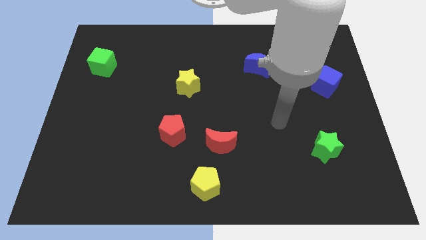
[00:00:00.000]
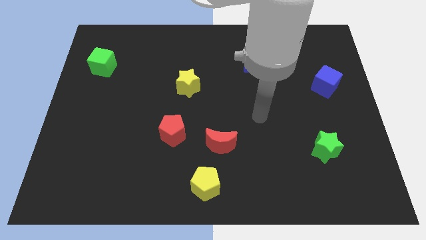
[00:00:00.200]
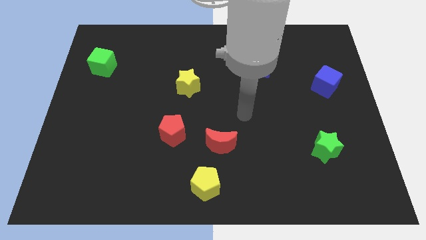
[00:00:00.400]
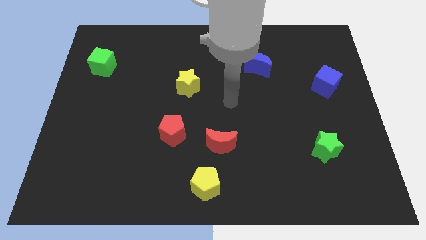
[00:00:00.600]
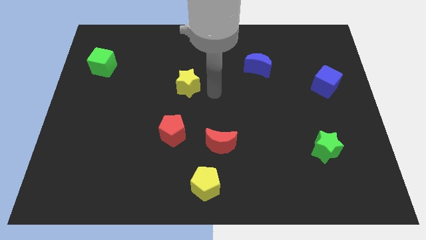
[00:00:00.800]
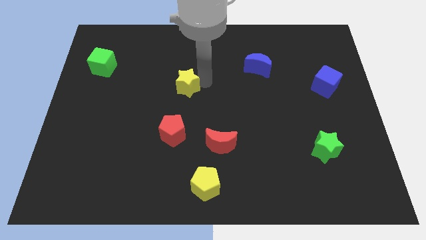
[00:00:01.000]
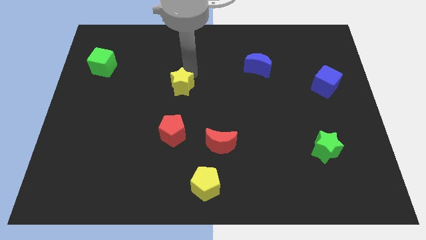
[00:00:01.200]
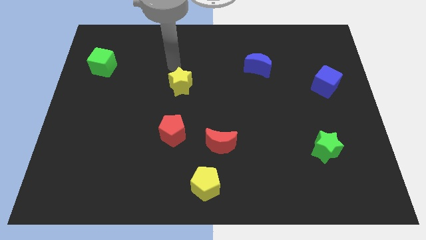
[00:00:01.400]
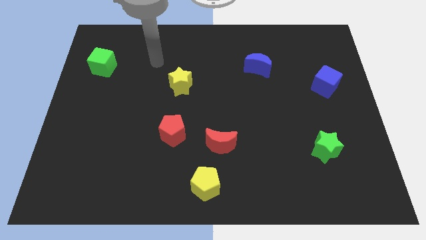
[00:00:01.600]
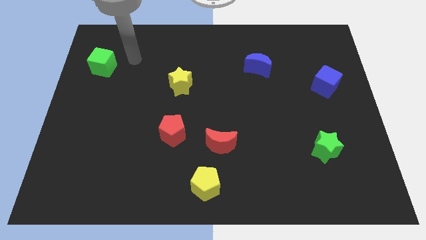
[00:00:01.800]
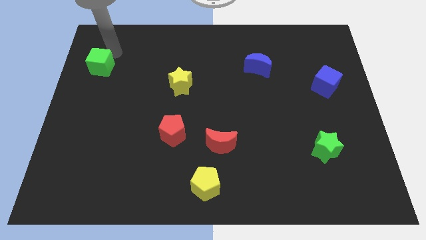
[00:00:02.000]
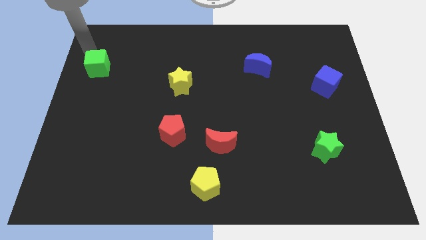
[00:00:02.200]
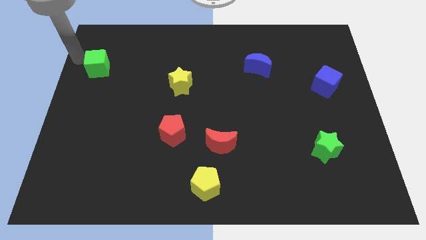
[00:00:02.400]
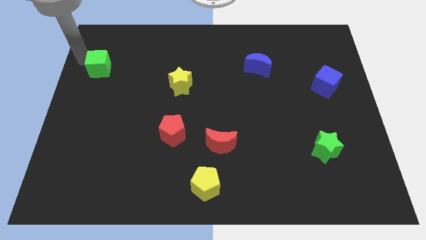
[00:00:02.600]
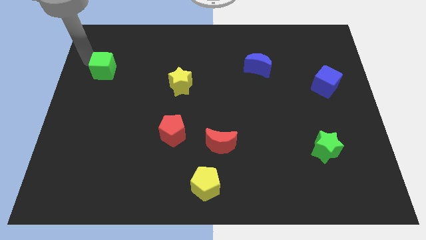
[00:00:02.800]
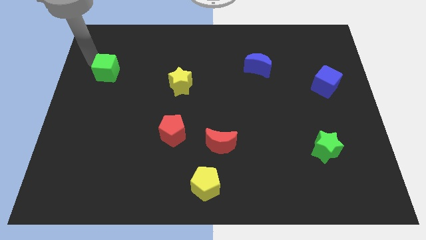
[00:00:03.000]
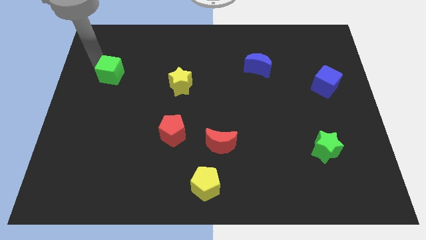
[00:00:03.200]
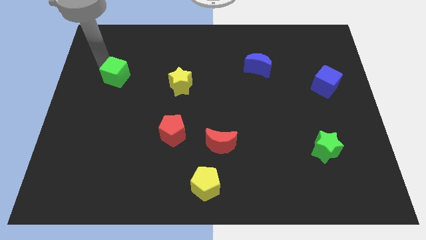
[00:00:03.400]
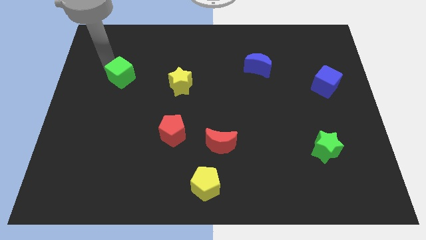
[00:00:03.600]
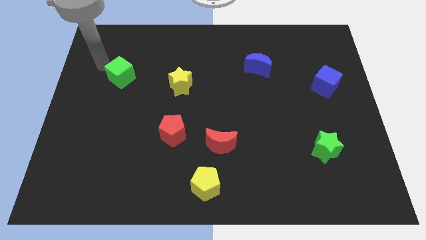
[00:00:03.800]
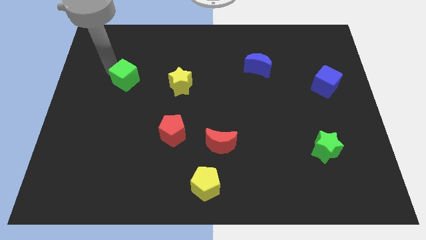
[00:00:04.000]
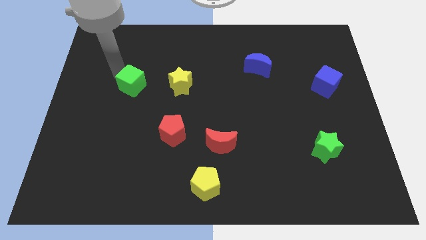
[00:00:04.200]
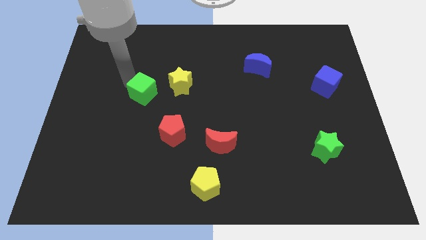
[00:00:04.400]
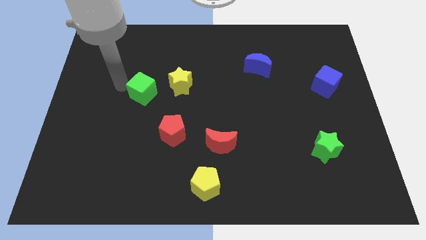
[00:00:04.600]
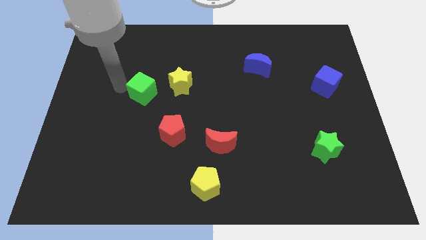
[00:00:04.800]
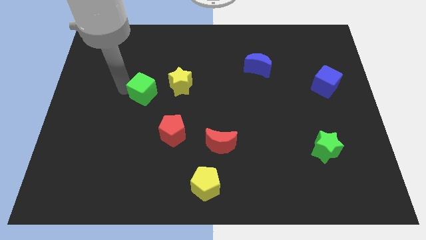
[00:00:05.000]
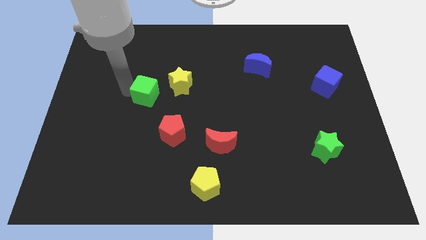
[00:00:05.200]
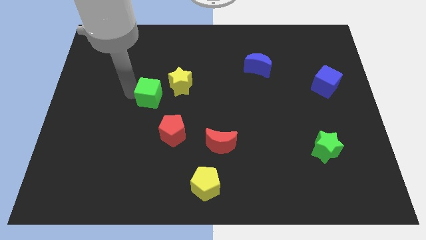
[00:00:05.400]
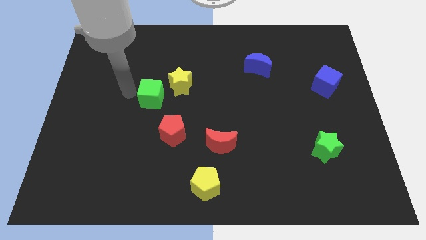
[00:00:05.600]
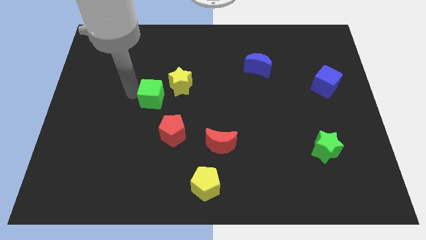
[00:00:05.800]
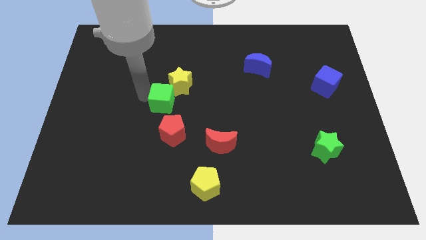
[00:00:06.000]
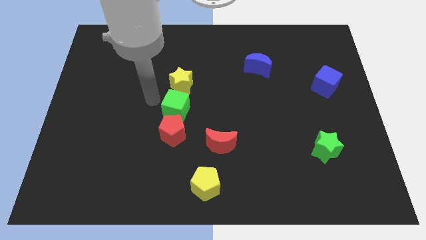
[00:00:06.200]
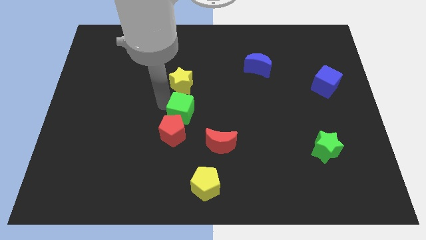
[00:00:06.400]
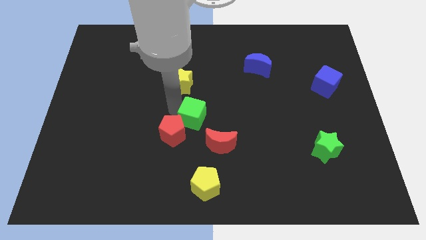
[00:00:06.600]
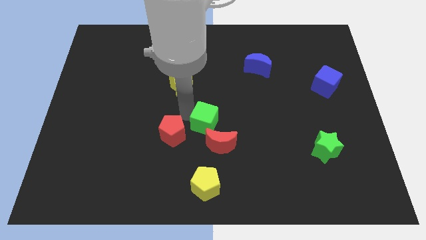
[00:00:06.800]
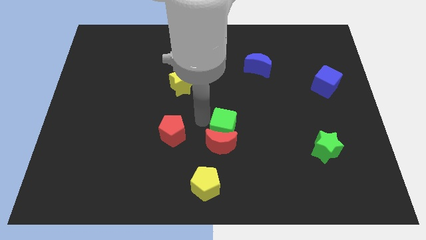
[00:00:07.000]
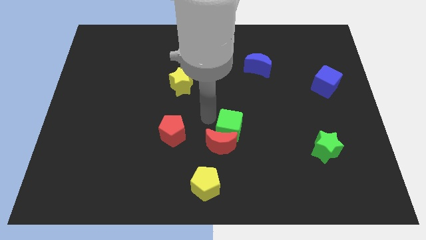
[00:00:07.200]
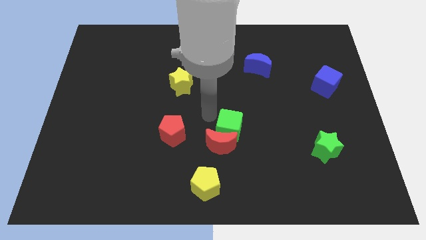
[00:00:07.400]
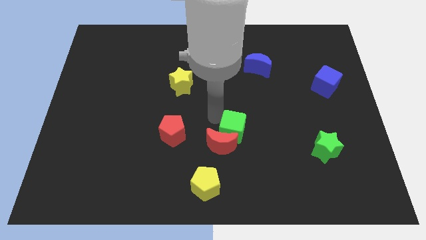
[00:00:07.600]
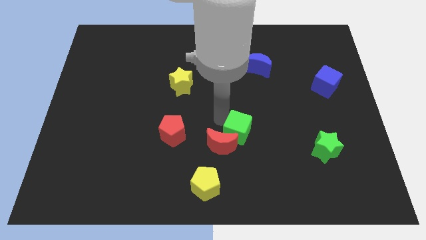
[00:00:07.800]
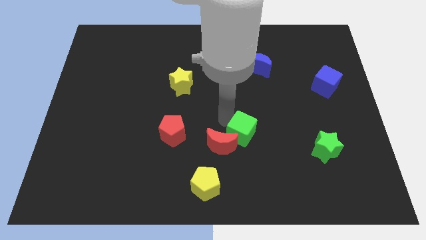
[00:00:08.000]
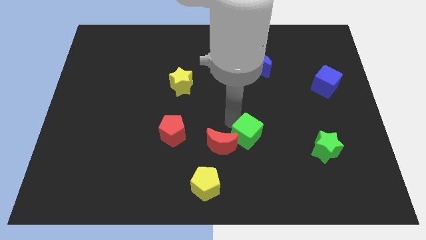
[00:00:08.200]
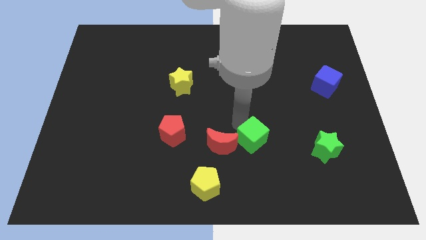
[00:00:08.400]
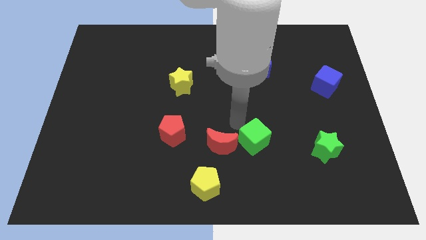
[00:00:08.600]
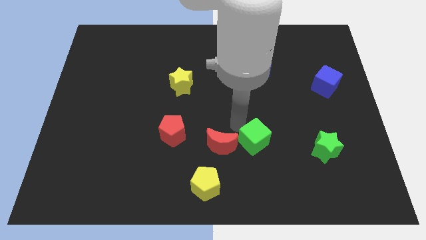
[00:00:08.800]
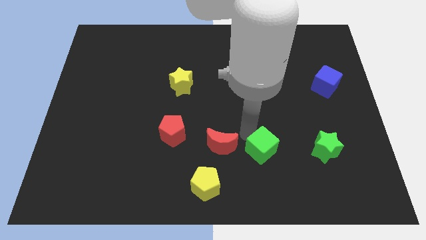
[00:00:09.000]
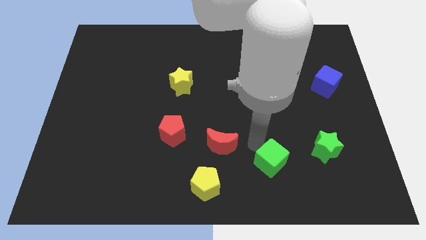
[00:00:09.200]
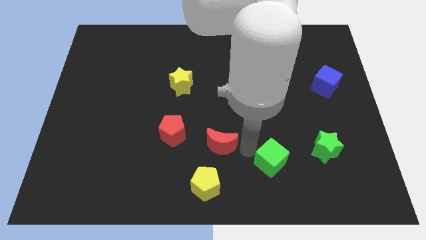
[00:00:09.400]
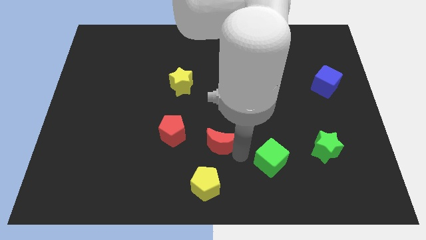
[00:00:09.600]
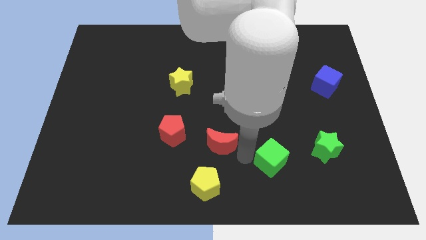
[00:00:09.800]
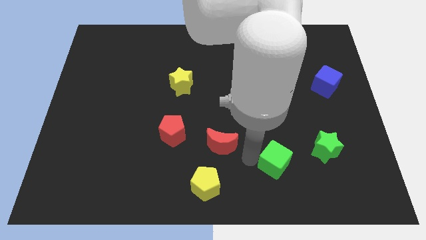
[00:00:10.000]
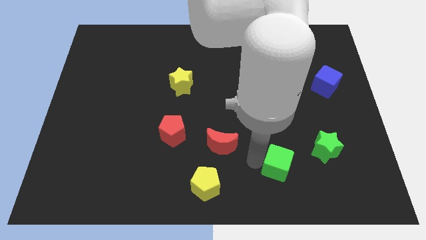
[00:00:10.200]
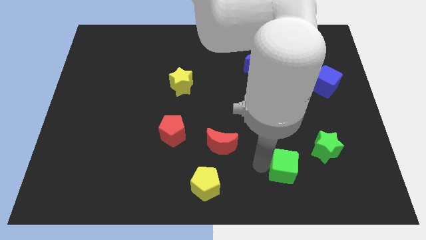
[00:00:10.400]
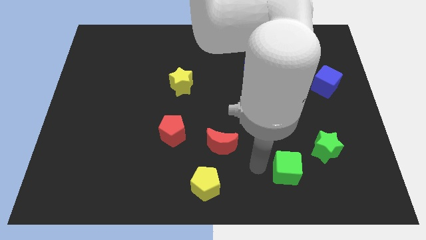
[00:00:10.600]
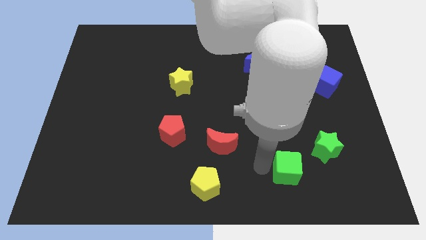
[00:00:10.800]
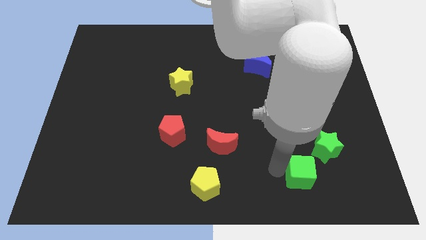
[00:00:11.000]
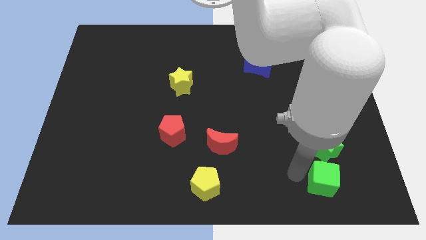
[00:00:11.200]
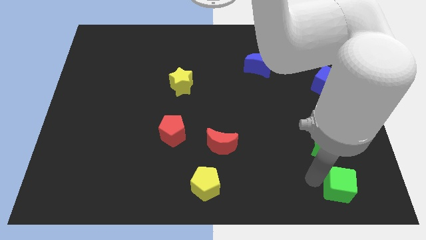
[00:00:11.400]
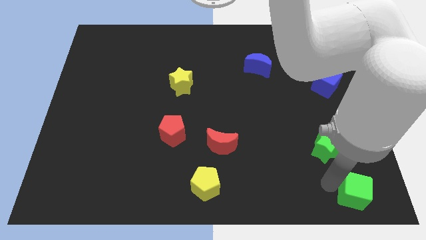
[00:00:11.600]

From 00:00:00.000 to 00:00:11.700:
move the green cube to the lower right corner
